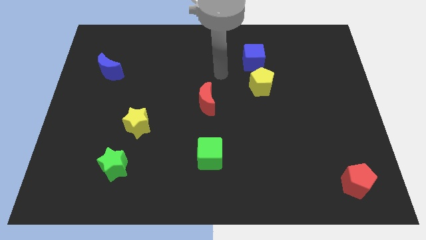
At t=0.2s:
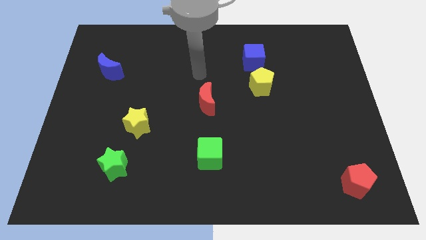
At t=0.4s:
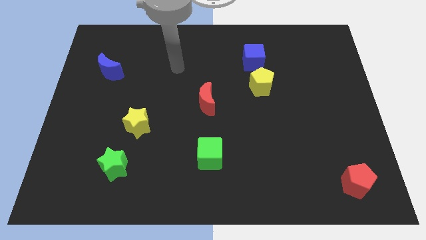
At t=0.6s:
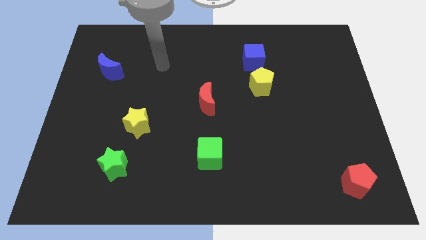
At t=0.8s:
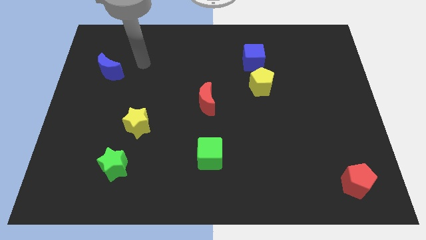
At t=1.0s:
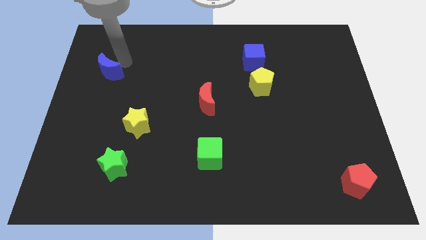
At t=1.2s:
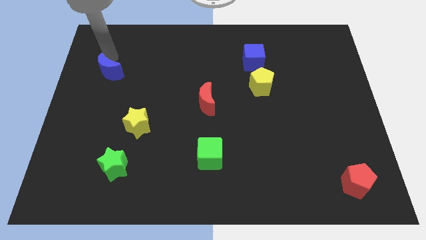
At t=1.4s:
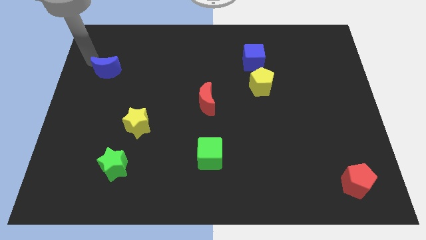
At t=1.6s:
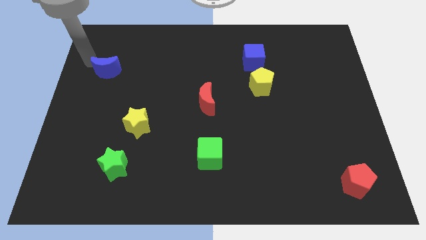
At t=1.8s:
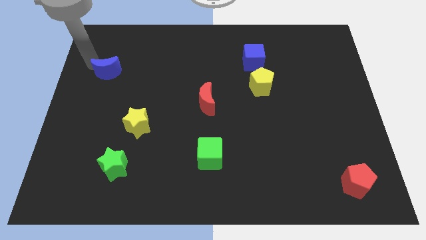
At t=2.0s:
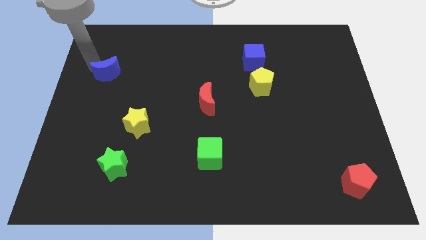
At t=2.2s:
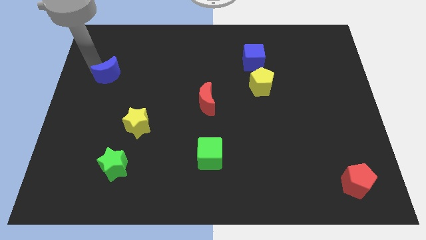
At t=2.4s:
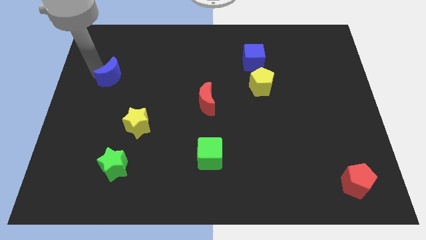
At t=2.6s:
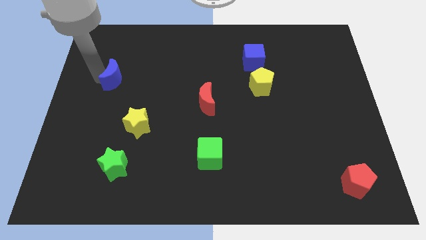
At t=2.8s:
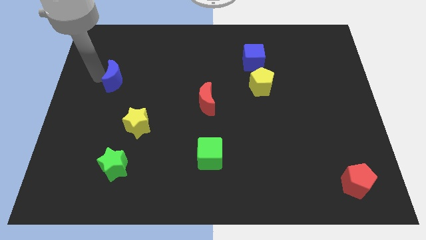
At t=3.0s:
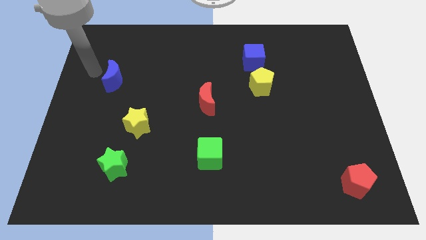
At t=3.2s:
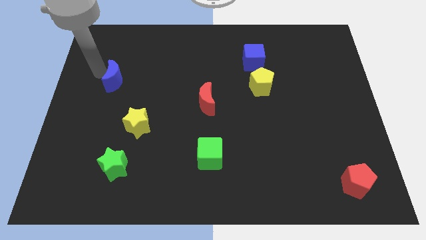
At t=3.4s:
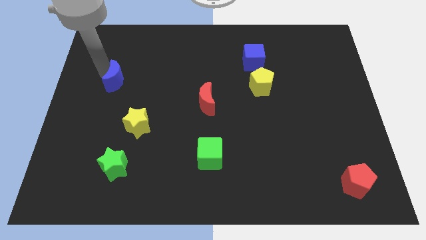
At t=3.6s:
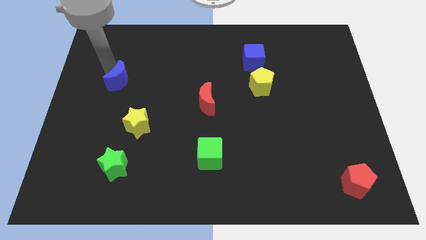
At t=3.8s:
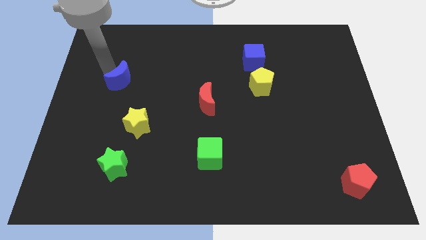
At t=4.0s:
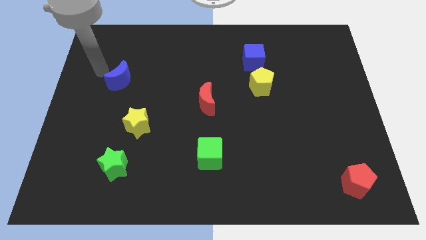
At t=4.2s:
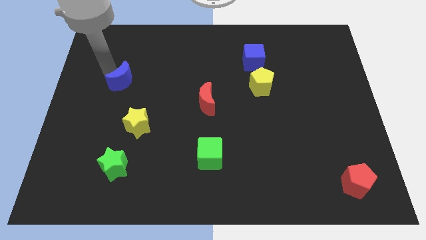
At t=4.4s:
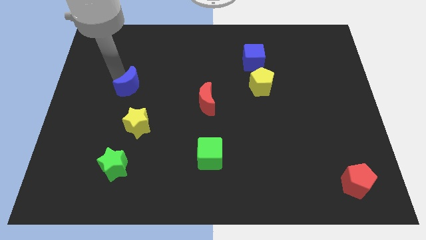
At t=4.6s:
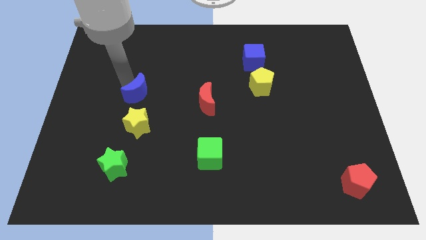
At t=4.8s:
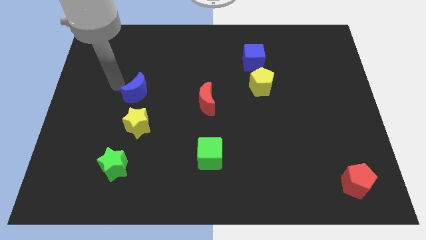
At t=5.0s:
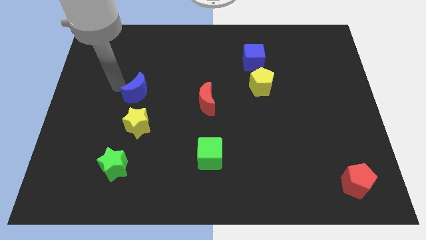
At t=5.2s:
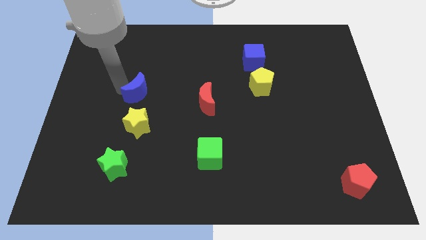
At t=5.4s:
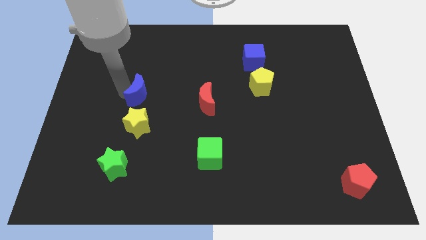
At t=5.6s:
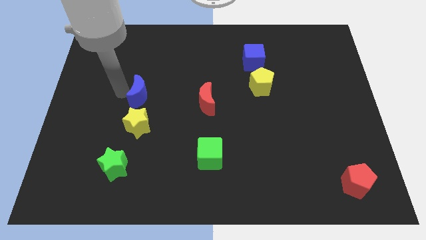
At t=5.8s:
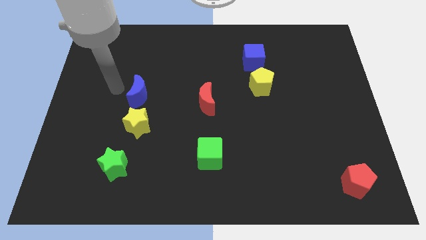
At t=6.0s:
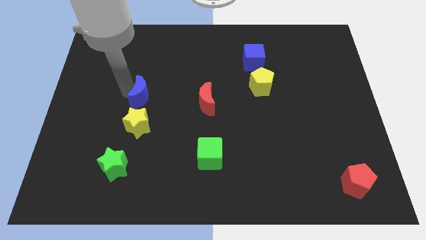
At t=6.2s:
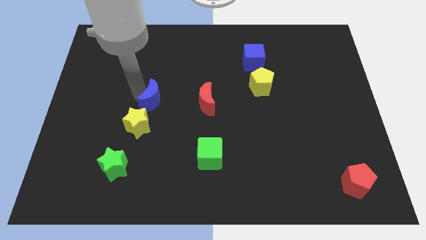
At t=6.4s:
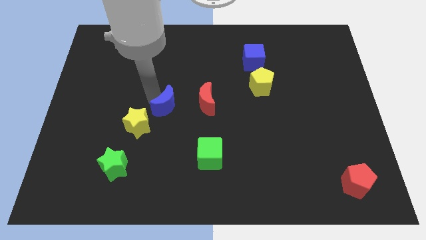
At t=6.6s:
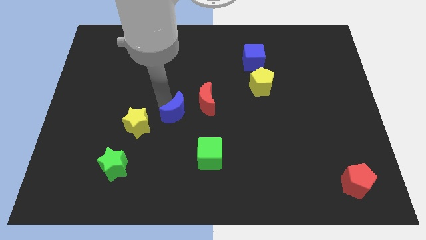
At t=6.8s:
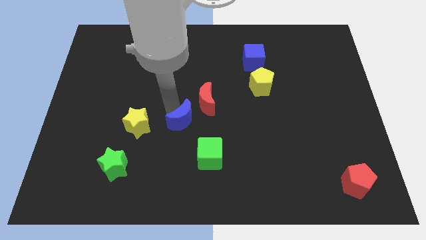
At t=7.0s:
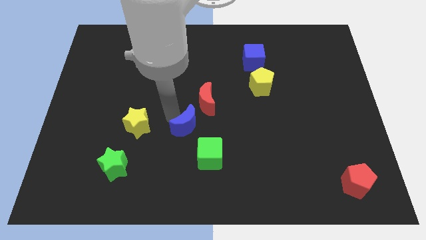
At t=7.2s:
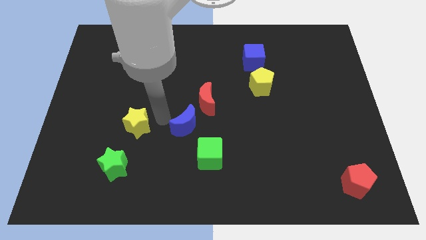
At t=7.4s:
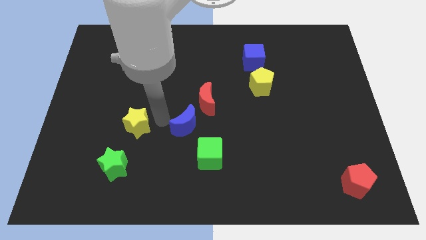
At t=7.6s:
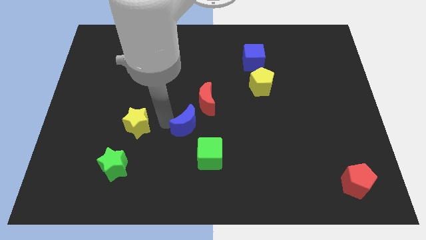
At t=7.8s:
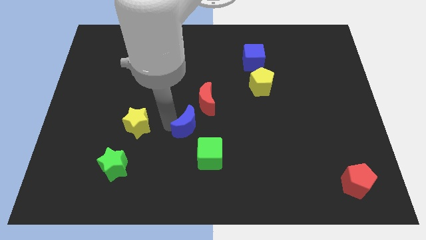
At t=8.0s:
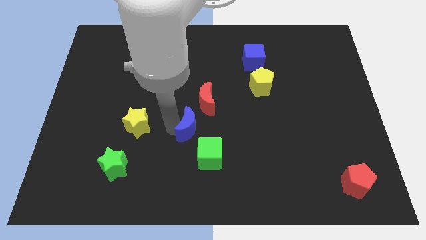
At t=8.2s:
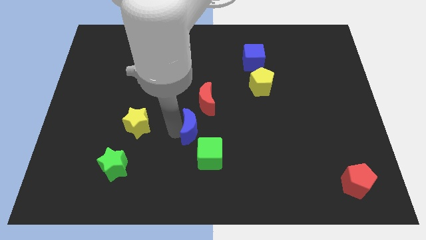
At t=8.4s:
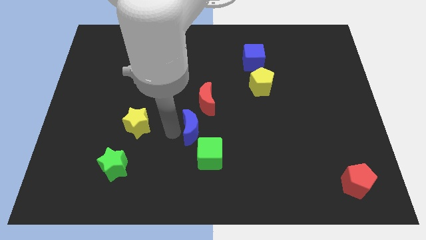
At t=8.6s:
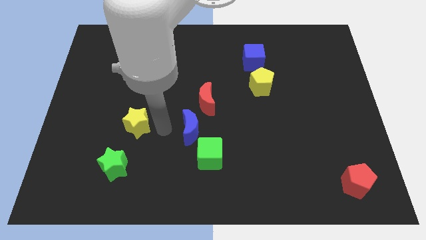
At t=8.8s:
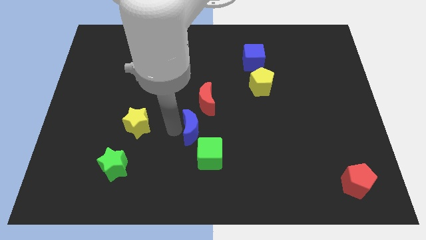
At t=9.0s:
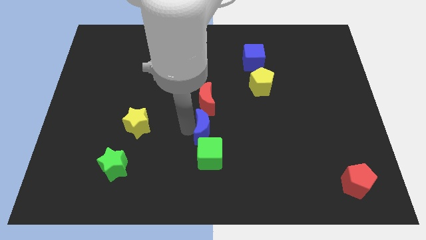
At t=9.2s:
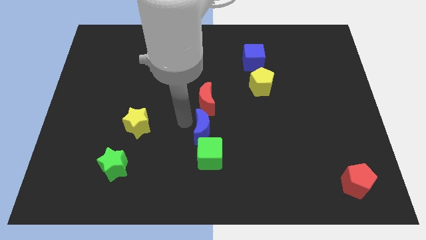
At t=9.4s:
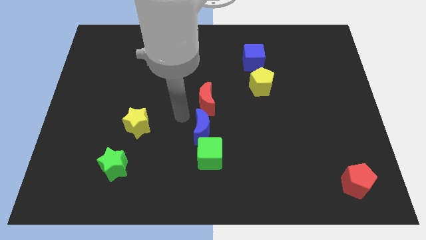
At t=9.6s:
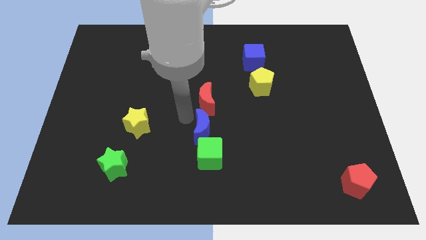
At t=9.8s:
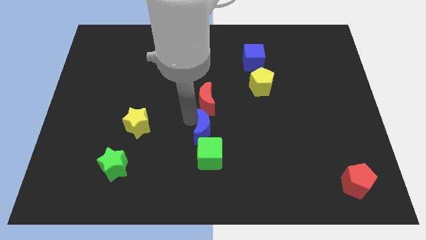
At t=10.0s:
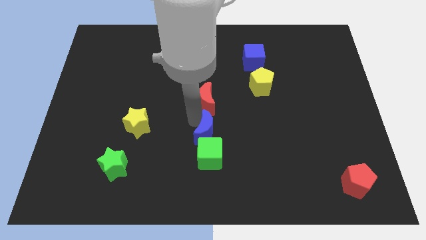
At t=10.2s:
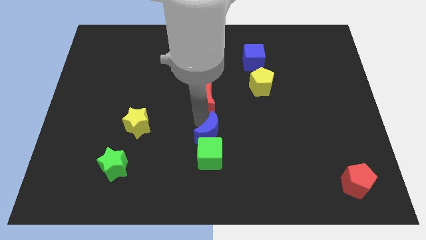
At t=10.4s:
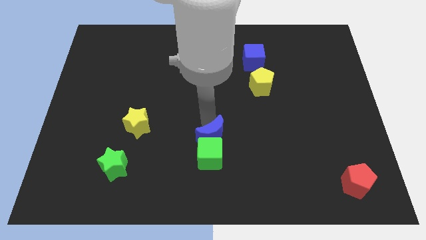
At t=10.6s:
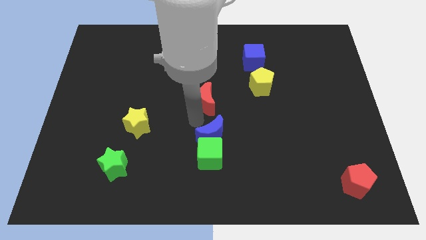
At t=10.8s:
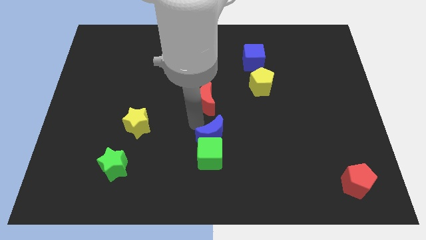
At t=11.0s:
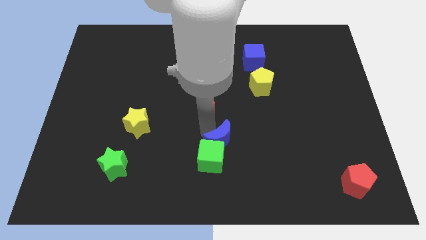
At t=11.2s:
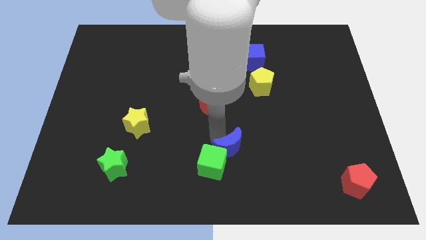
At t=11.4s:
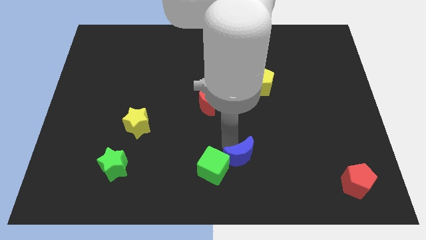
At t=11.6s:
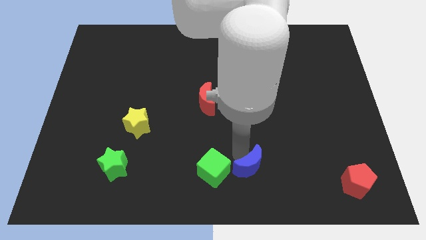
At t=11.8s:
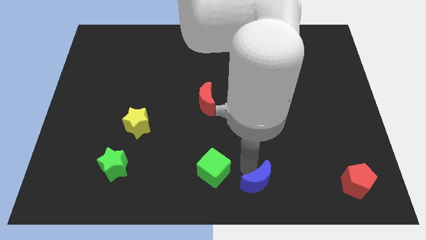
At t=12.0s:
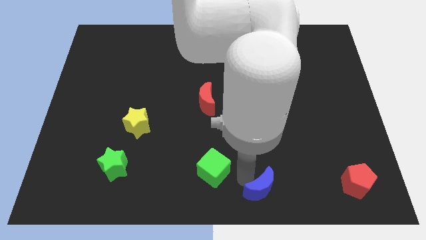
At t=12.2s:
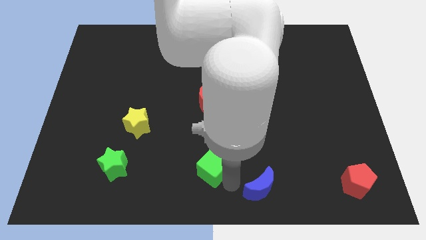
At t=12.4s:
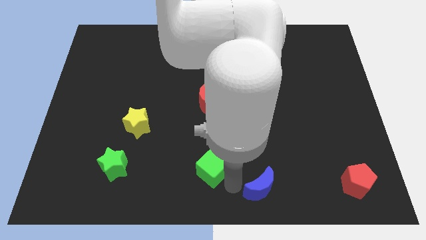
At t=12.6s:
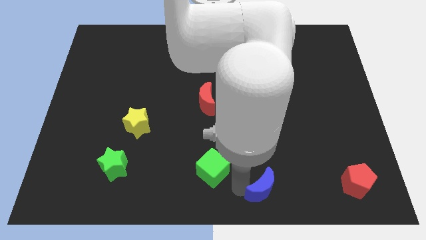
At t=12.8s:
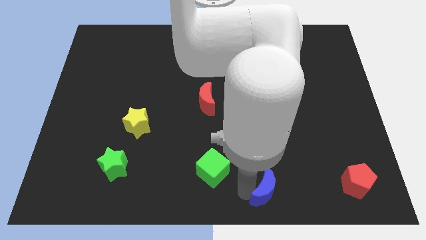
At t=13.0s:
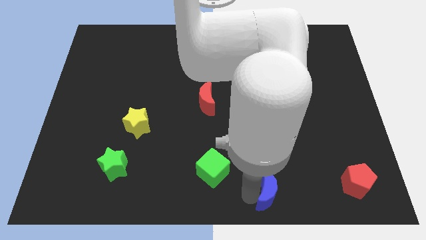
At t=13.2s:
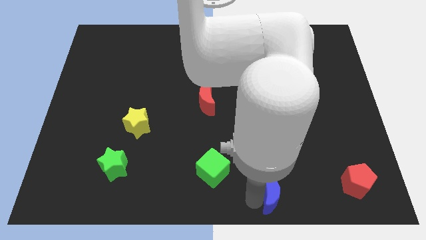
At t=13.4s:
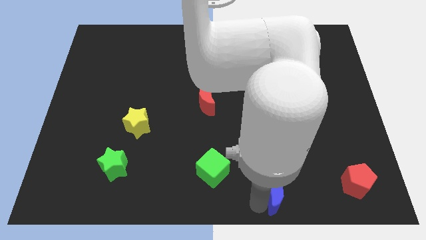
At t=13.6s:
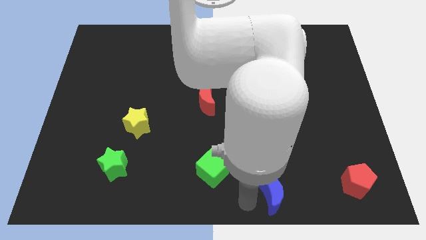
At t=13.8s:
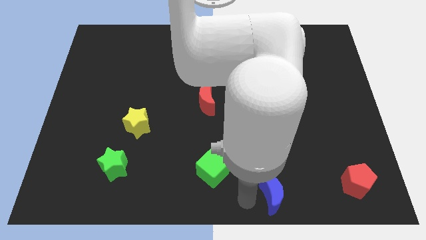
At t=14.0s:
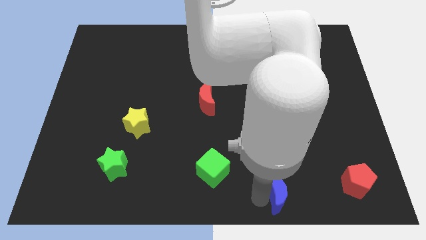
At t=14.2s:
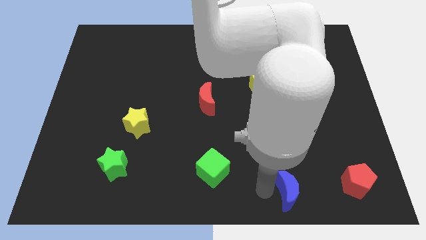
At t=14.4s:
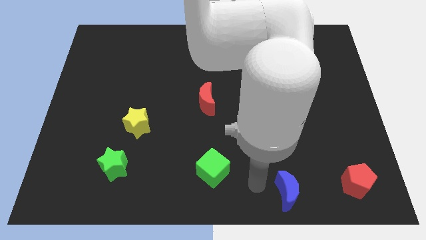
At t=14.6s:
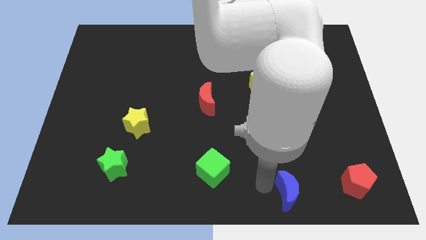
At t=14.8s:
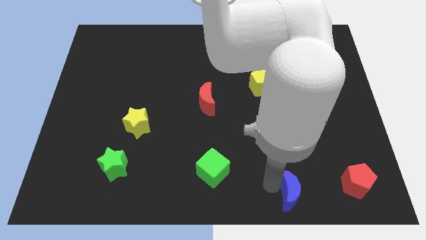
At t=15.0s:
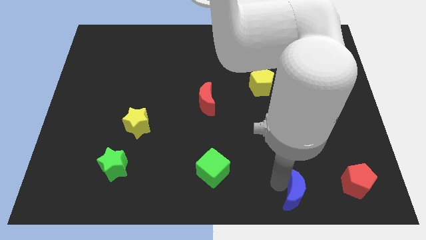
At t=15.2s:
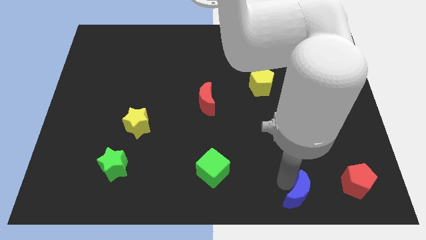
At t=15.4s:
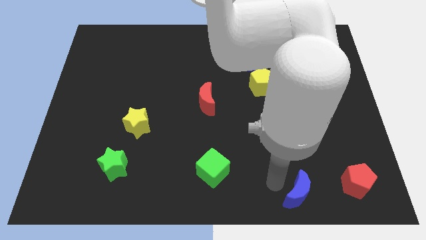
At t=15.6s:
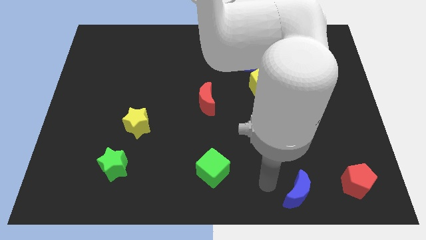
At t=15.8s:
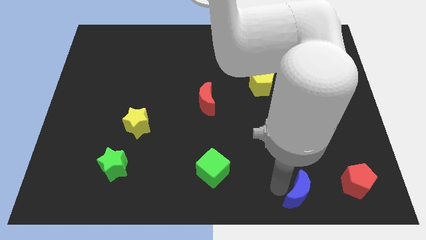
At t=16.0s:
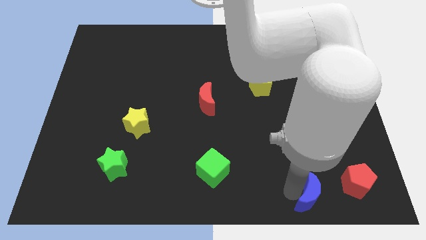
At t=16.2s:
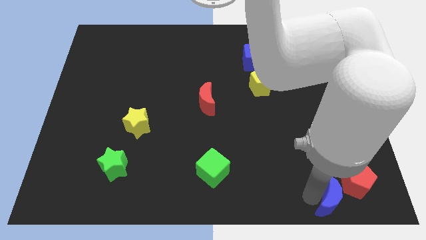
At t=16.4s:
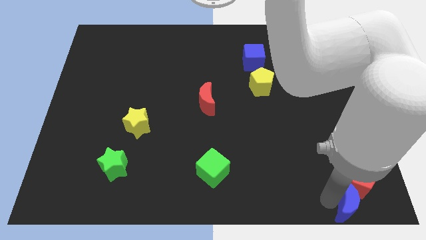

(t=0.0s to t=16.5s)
slide the blue moon to the bottom right corner
